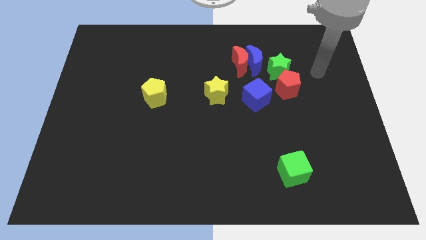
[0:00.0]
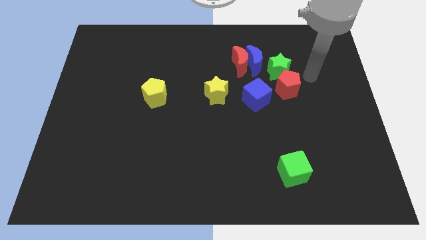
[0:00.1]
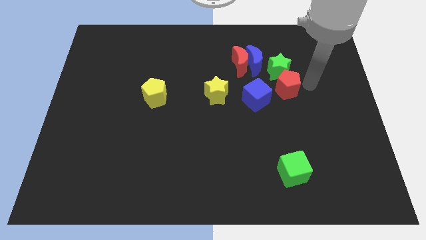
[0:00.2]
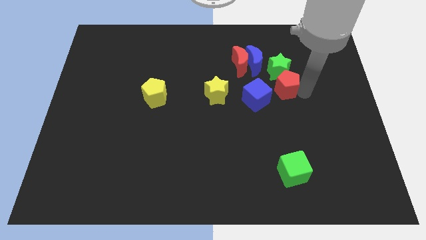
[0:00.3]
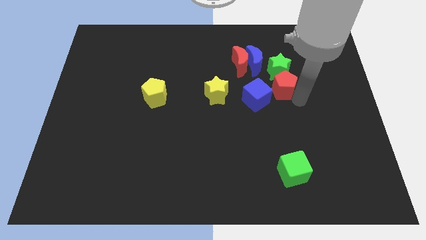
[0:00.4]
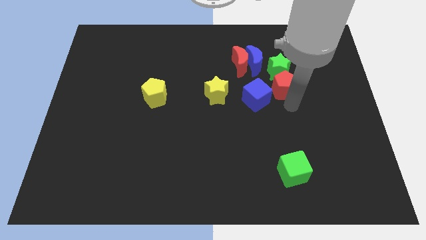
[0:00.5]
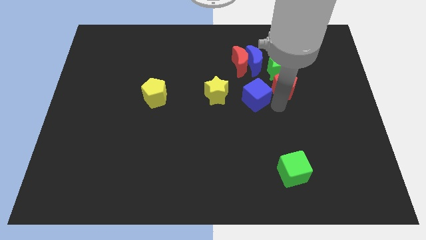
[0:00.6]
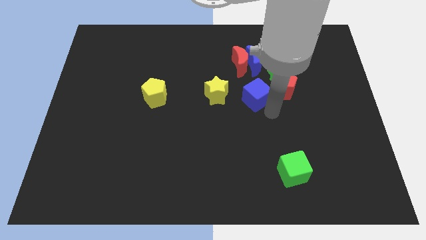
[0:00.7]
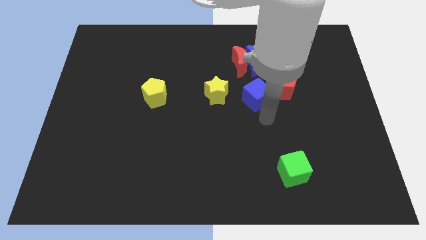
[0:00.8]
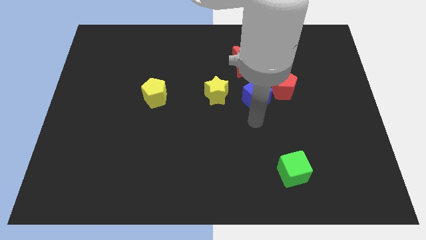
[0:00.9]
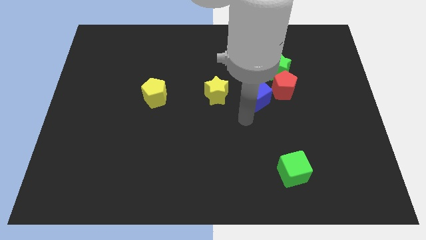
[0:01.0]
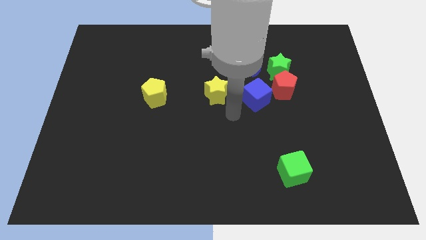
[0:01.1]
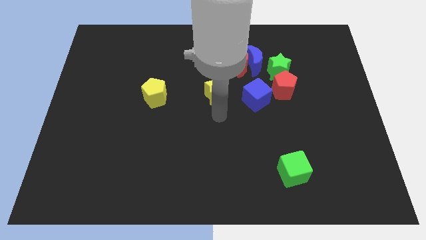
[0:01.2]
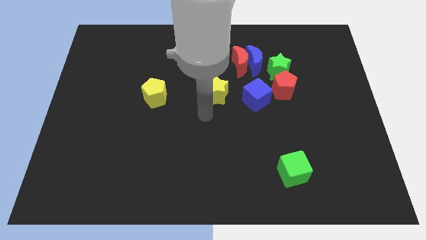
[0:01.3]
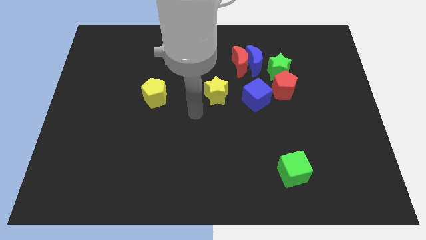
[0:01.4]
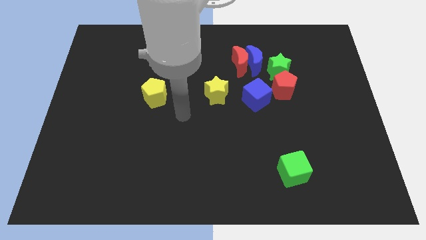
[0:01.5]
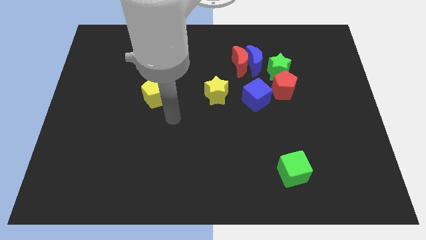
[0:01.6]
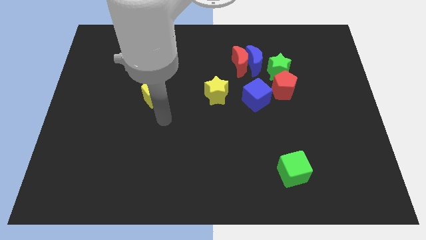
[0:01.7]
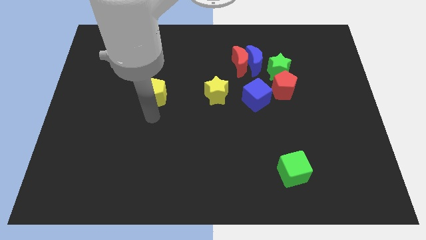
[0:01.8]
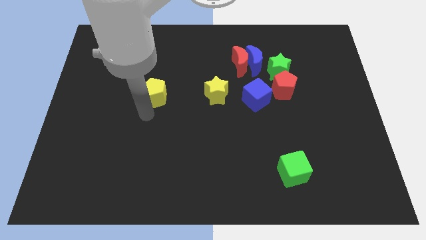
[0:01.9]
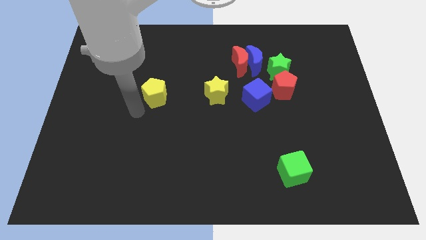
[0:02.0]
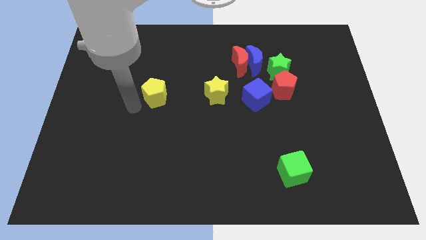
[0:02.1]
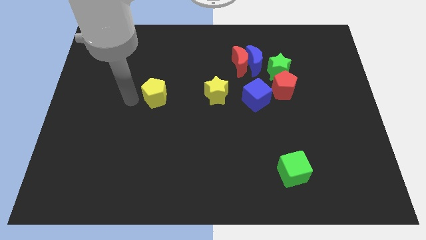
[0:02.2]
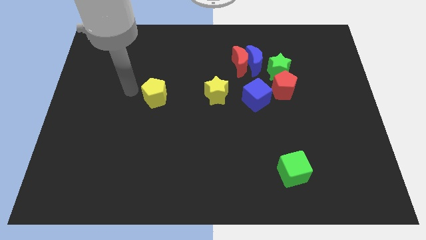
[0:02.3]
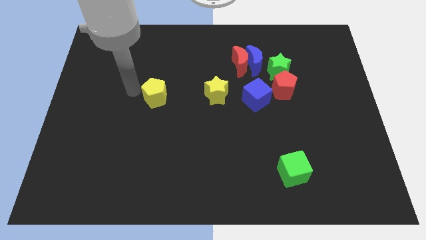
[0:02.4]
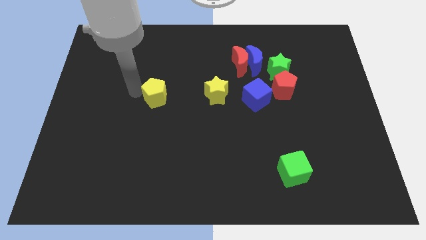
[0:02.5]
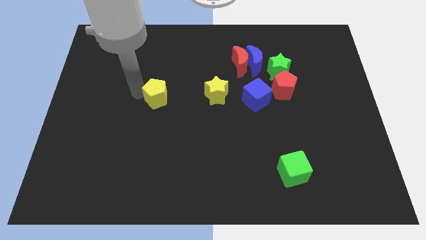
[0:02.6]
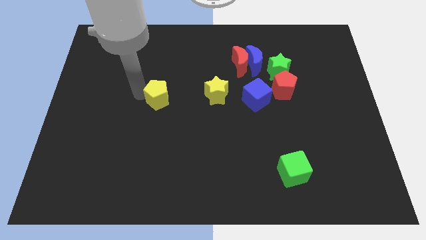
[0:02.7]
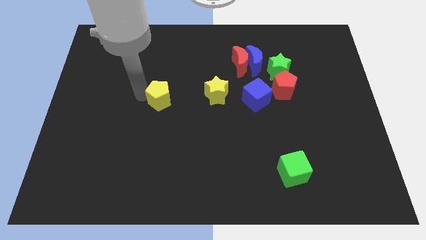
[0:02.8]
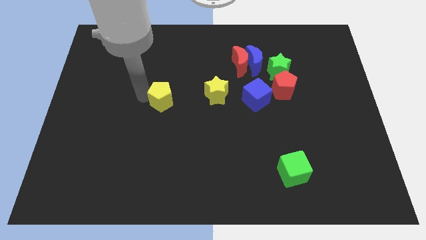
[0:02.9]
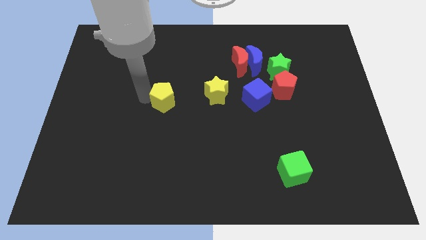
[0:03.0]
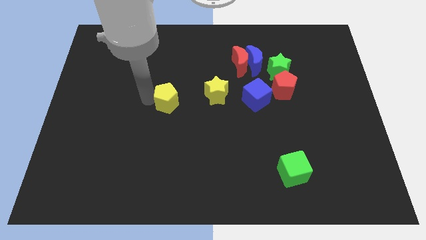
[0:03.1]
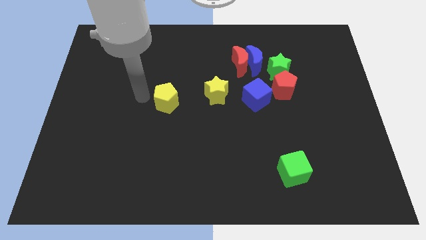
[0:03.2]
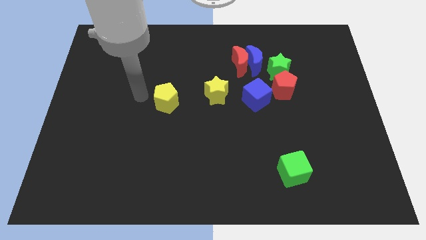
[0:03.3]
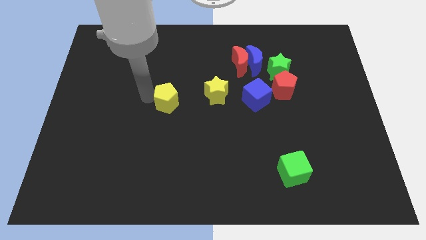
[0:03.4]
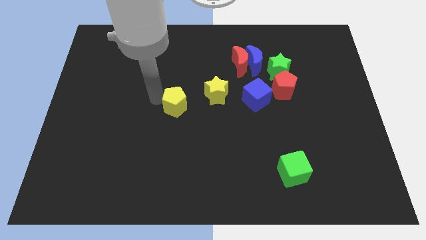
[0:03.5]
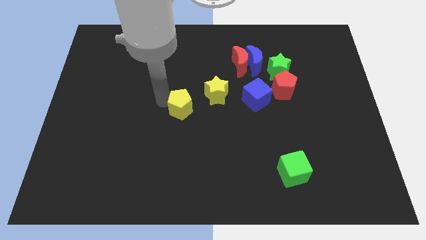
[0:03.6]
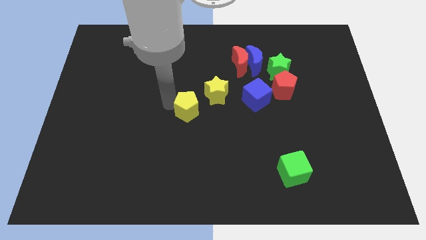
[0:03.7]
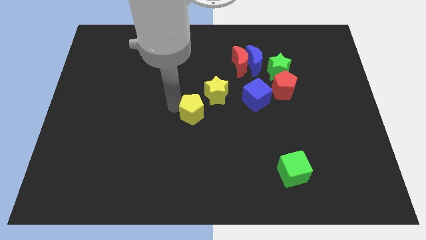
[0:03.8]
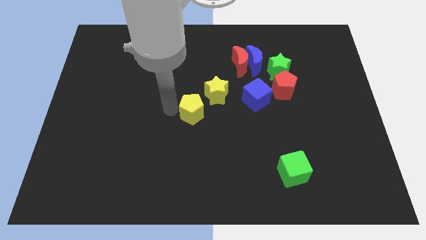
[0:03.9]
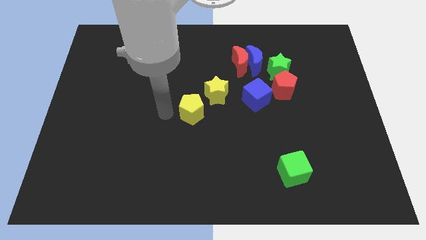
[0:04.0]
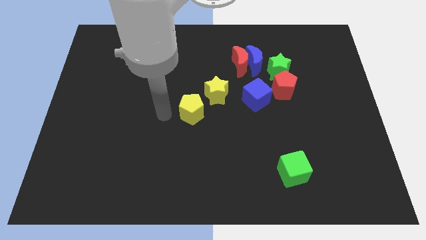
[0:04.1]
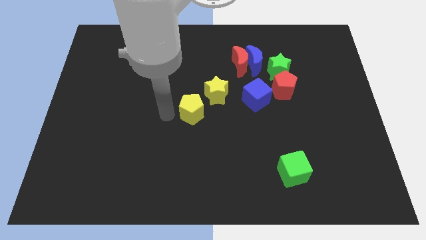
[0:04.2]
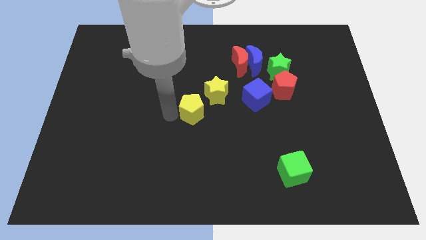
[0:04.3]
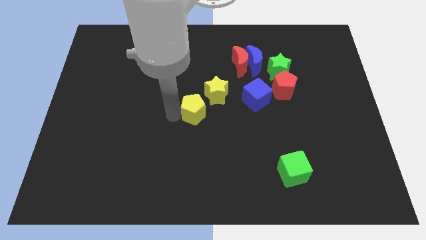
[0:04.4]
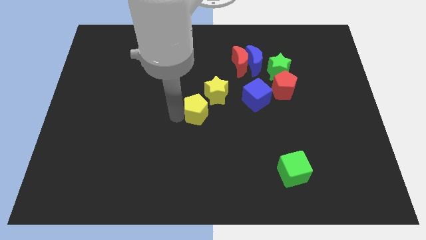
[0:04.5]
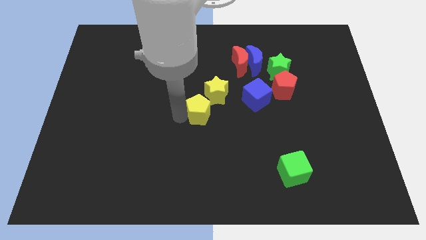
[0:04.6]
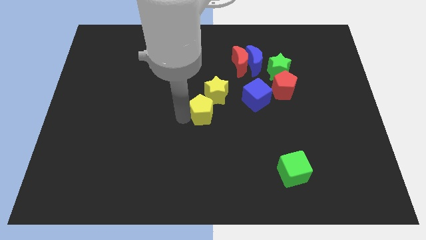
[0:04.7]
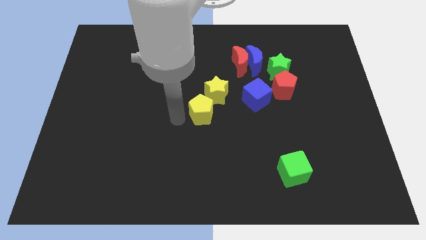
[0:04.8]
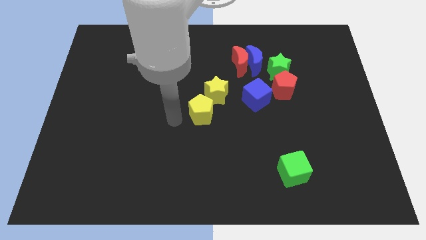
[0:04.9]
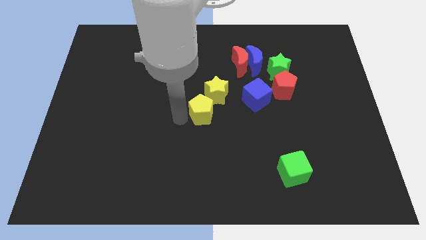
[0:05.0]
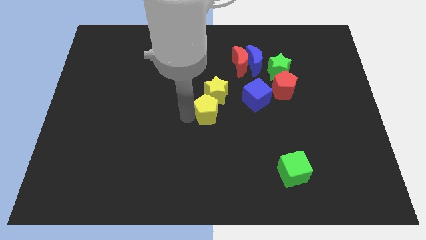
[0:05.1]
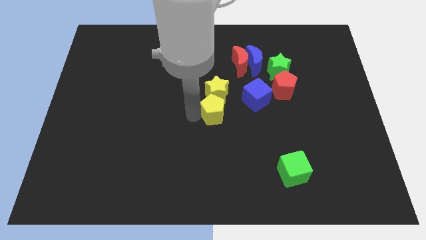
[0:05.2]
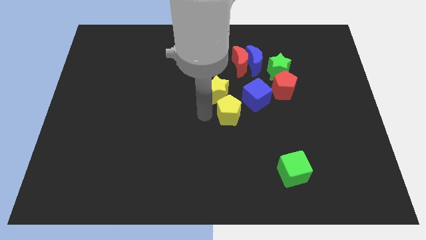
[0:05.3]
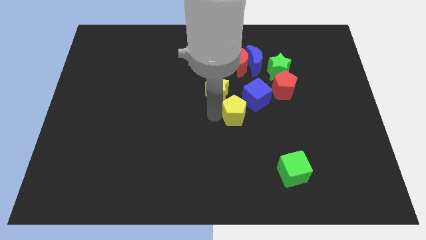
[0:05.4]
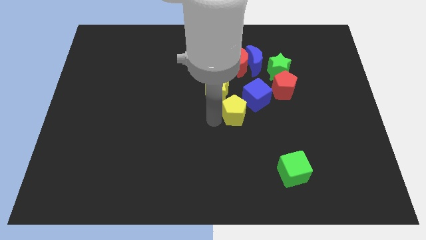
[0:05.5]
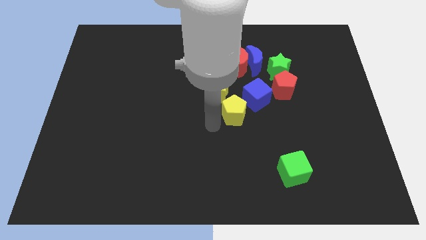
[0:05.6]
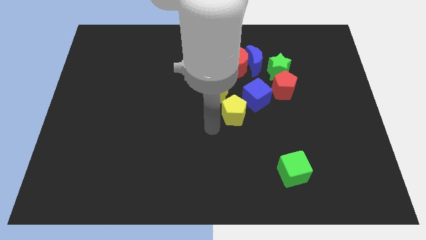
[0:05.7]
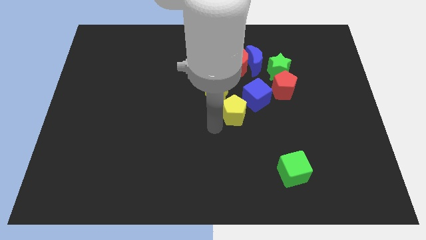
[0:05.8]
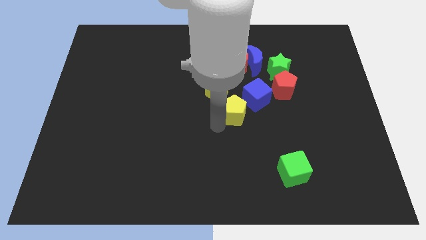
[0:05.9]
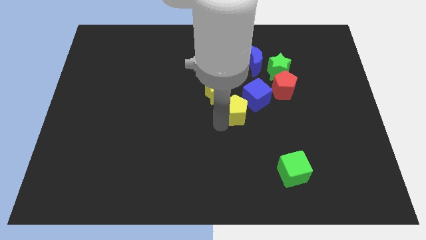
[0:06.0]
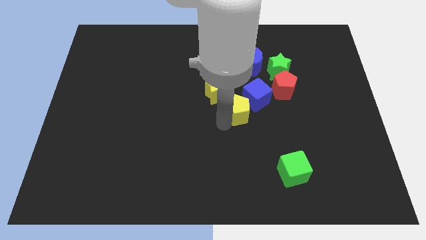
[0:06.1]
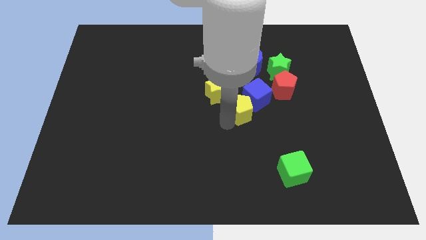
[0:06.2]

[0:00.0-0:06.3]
slide the yellow pentagon next to the blue cube

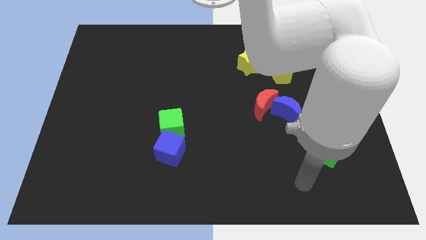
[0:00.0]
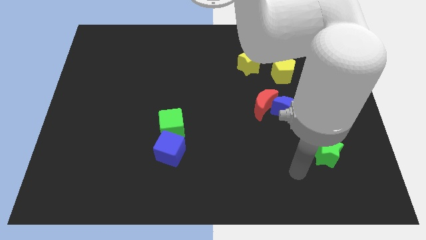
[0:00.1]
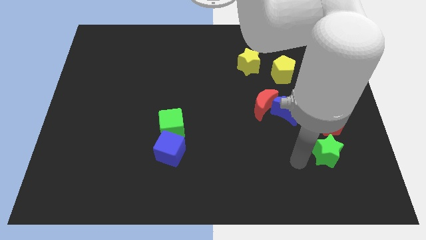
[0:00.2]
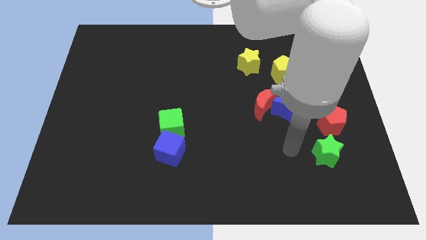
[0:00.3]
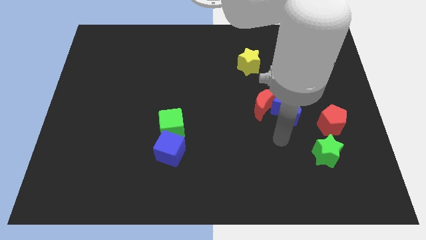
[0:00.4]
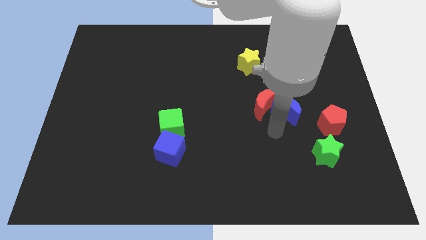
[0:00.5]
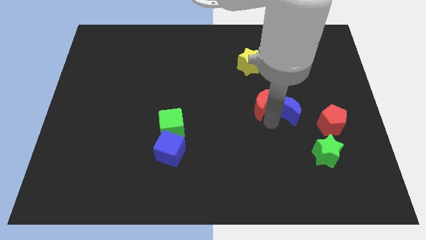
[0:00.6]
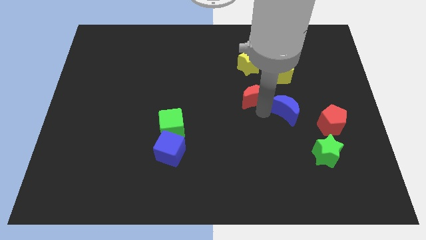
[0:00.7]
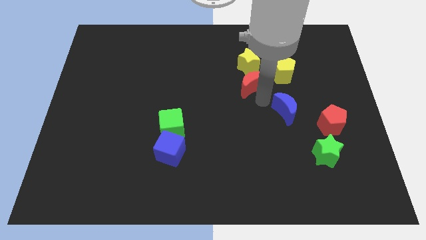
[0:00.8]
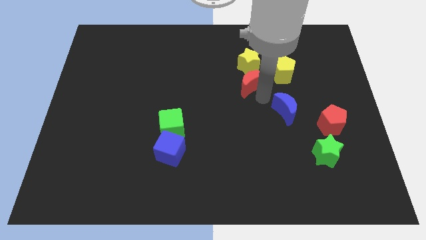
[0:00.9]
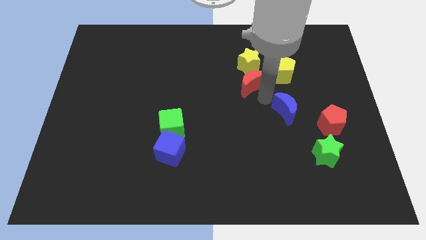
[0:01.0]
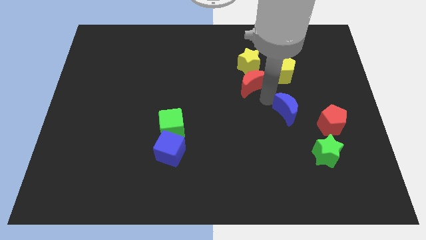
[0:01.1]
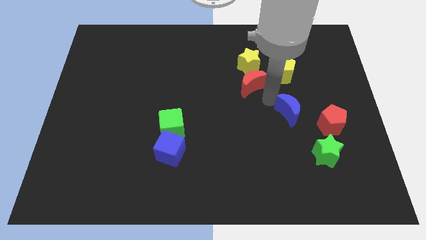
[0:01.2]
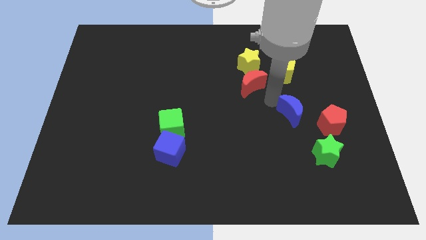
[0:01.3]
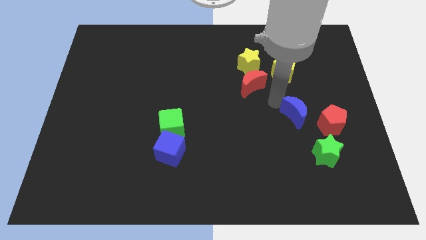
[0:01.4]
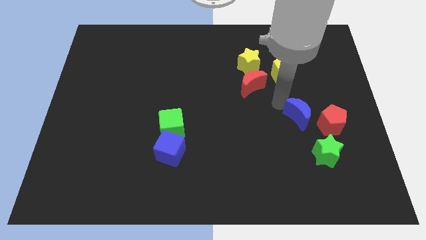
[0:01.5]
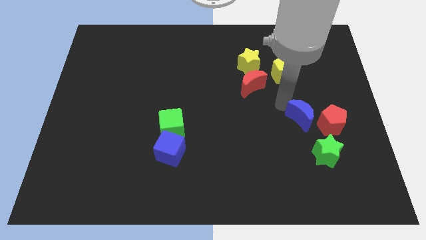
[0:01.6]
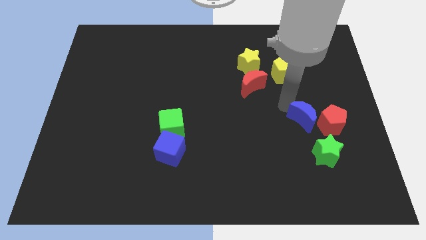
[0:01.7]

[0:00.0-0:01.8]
put the blue moon close to the red pentagon
